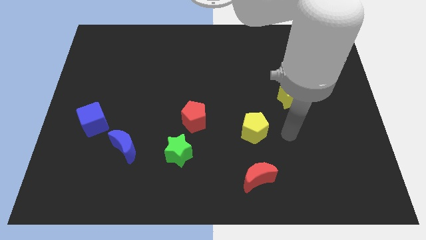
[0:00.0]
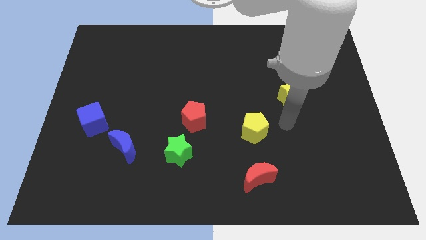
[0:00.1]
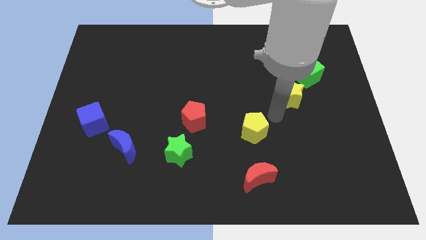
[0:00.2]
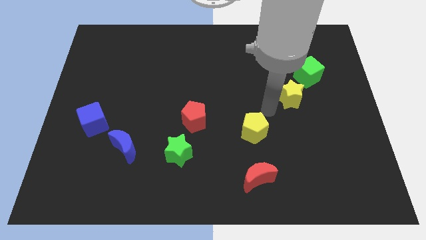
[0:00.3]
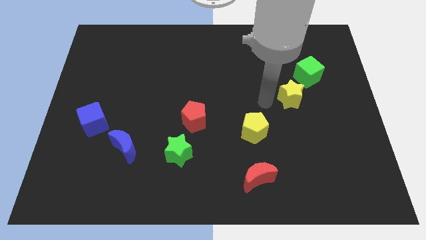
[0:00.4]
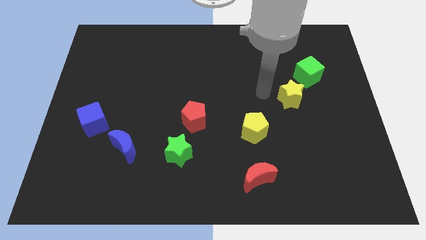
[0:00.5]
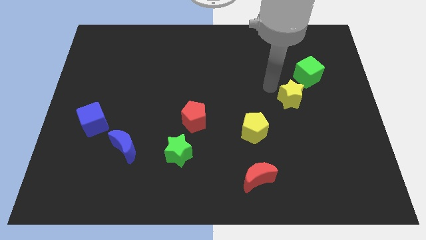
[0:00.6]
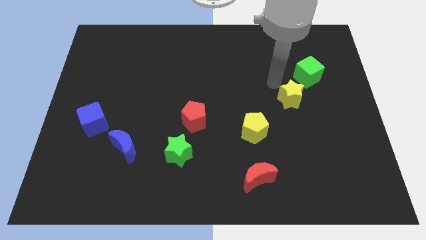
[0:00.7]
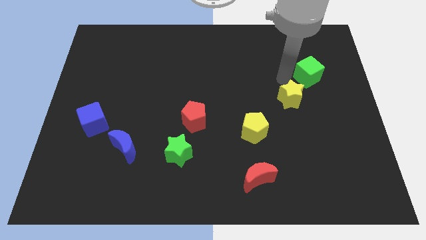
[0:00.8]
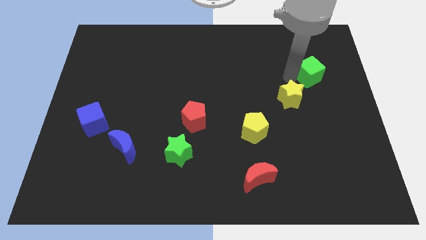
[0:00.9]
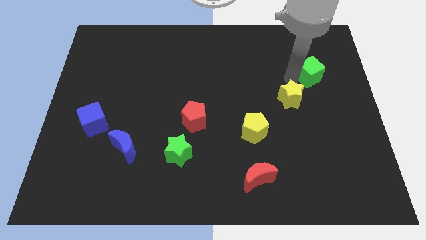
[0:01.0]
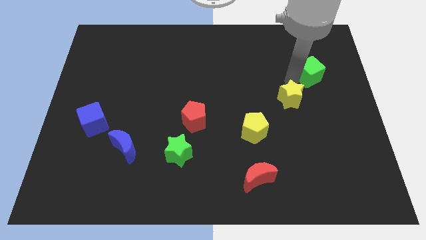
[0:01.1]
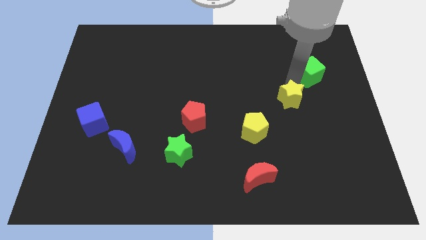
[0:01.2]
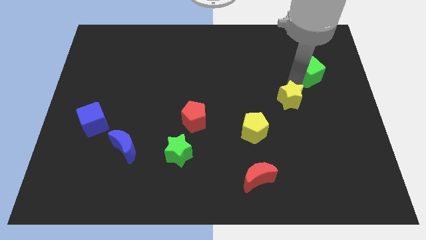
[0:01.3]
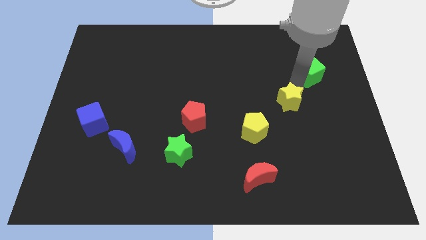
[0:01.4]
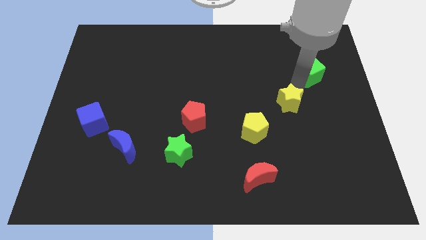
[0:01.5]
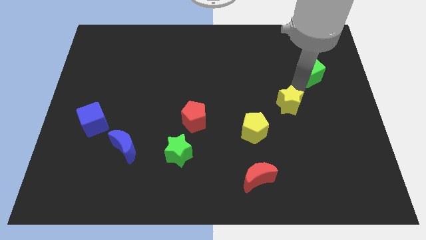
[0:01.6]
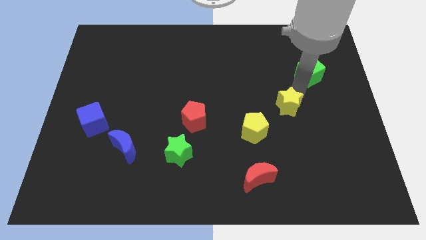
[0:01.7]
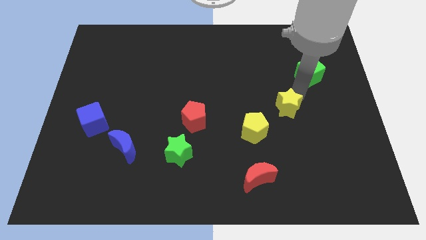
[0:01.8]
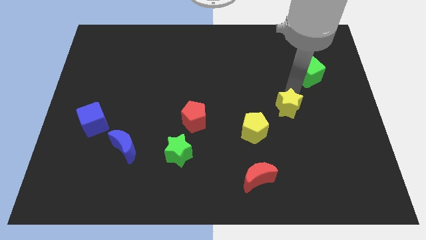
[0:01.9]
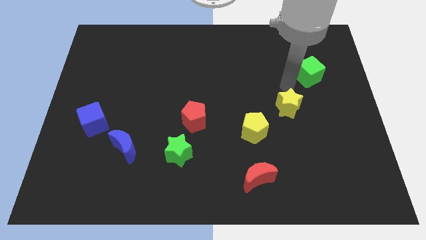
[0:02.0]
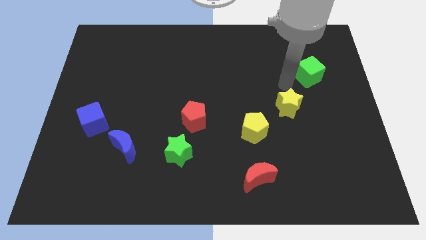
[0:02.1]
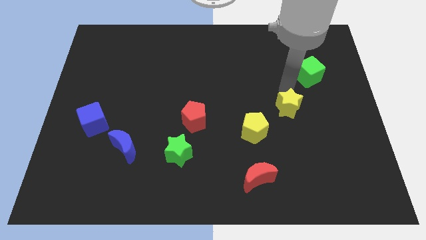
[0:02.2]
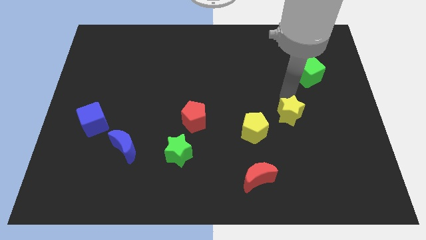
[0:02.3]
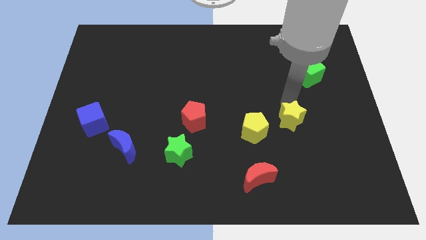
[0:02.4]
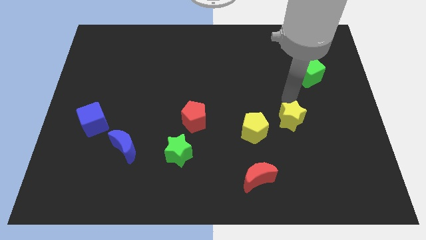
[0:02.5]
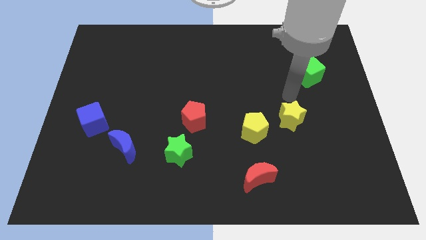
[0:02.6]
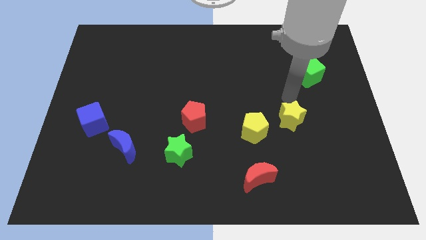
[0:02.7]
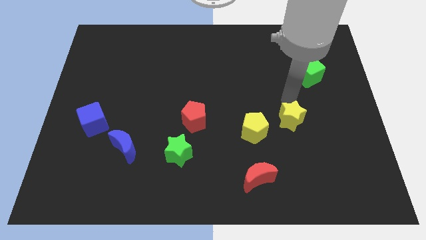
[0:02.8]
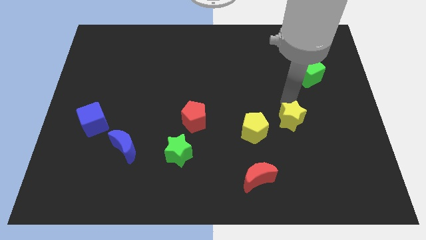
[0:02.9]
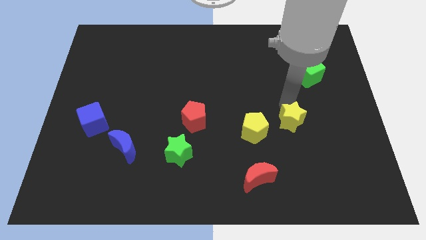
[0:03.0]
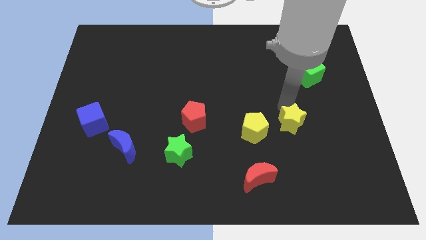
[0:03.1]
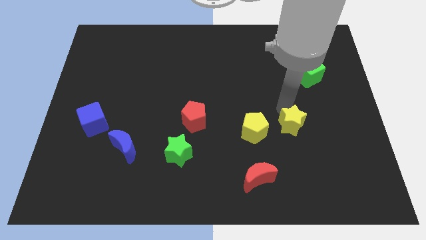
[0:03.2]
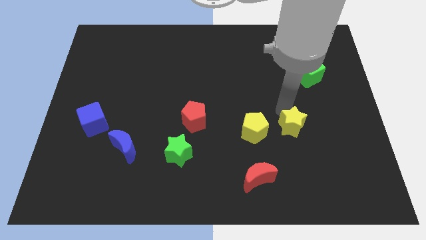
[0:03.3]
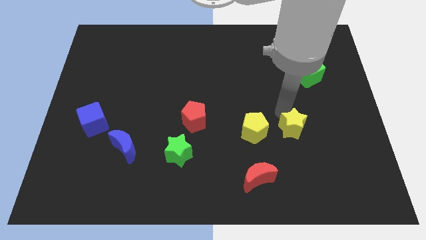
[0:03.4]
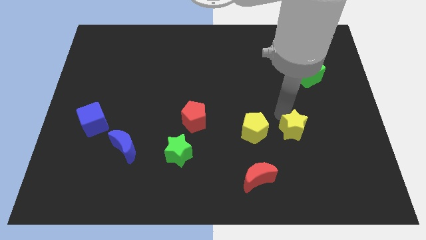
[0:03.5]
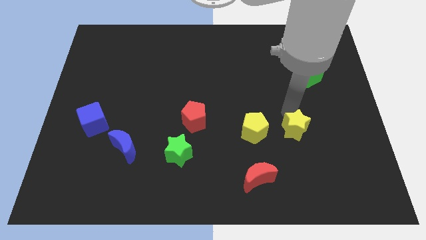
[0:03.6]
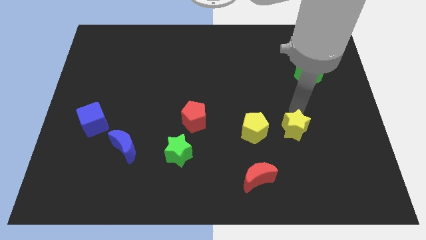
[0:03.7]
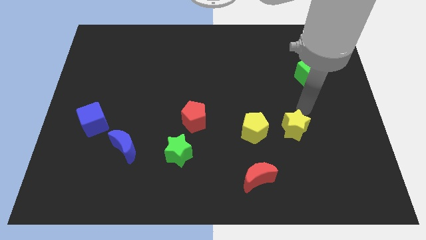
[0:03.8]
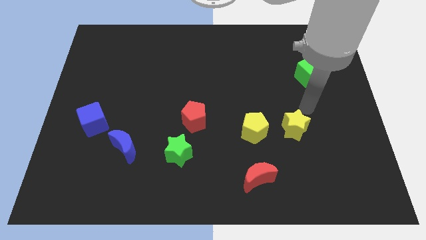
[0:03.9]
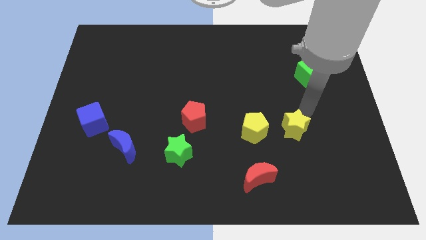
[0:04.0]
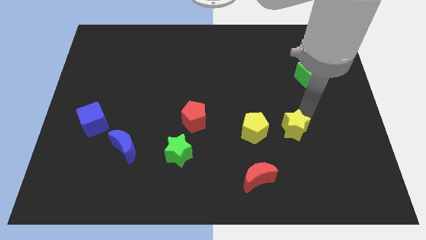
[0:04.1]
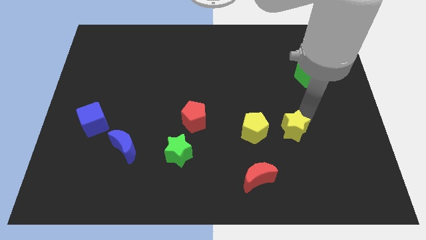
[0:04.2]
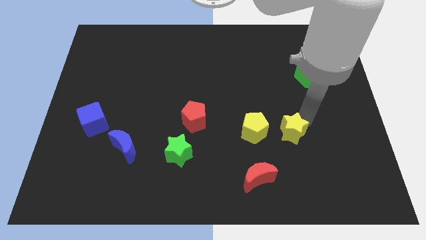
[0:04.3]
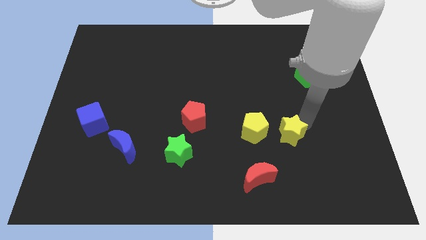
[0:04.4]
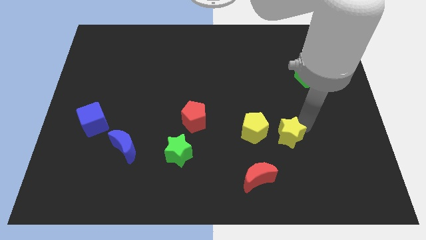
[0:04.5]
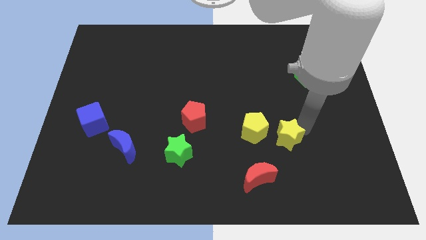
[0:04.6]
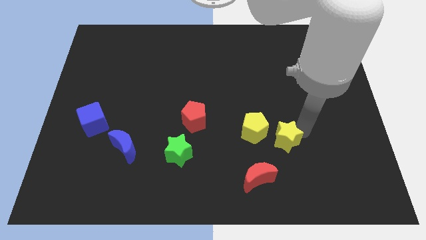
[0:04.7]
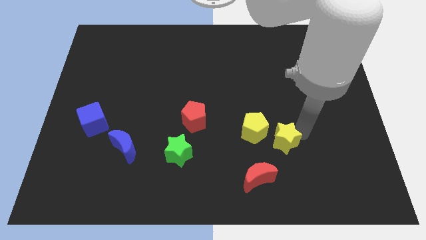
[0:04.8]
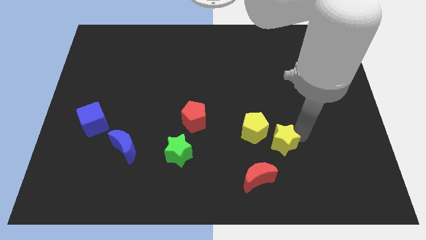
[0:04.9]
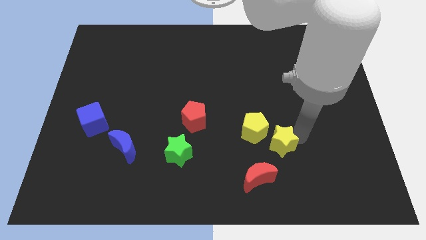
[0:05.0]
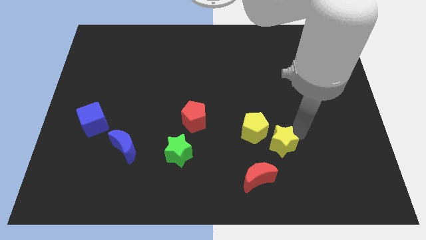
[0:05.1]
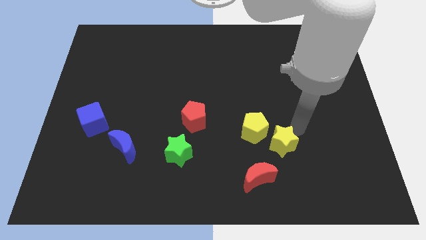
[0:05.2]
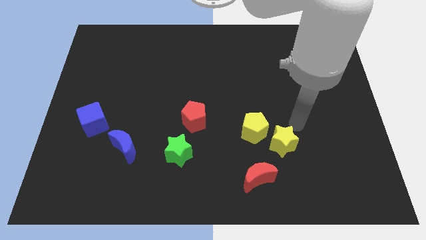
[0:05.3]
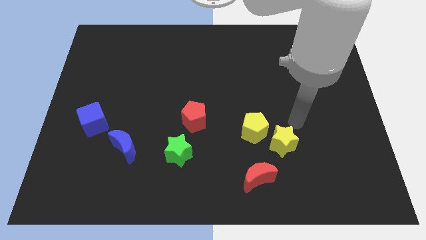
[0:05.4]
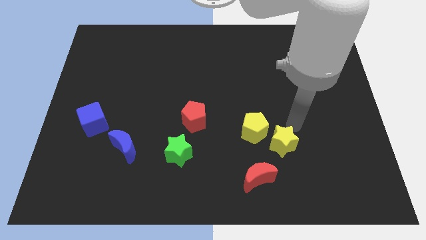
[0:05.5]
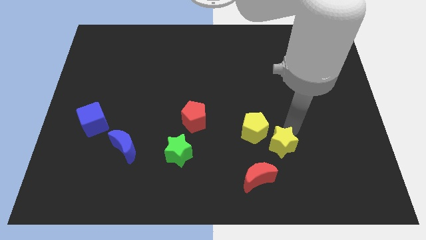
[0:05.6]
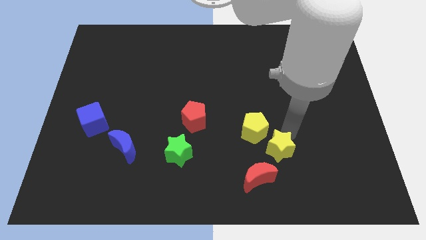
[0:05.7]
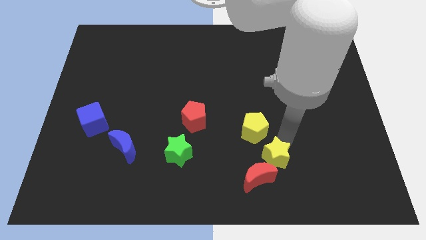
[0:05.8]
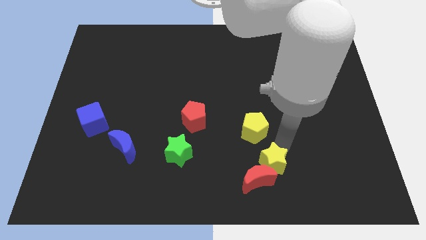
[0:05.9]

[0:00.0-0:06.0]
move the yellow star next to the red moon

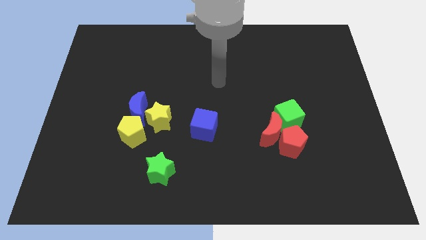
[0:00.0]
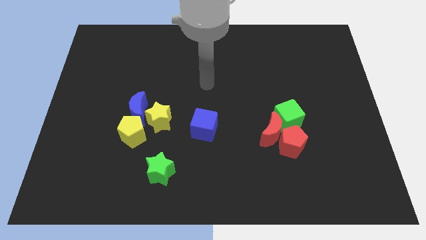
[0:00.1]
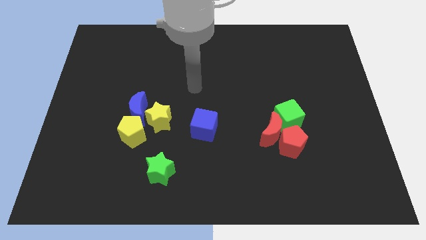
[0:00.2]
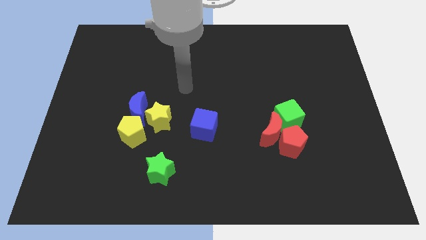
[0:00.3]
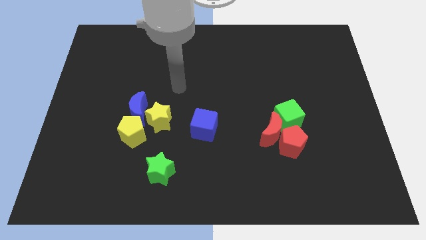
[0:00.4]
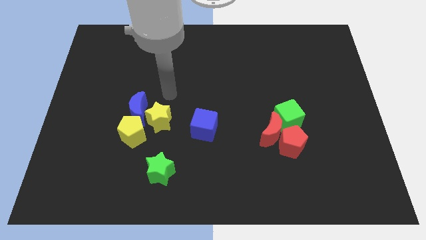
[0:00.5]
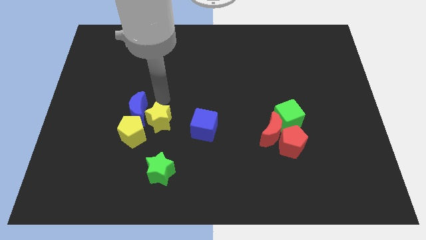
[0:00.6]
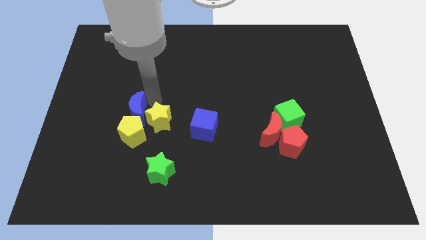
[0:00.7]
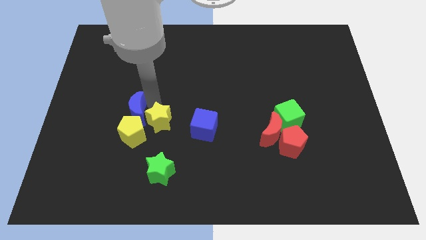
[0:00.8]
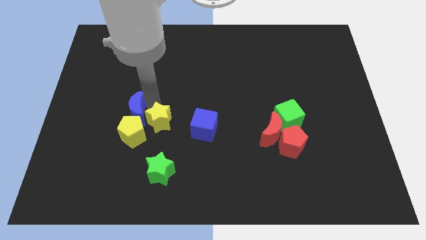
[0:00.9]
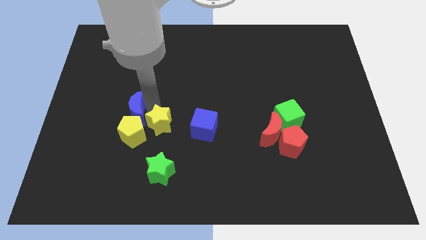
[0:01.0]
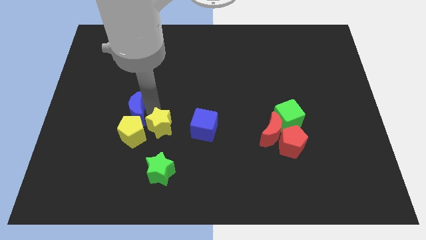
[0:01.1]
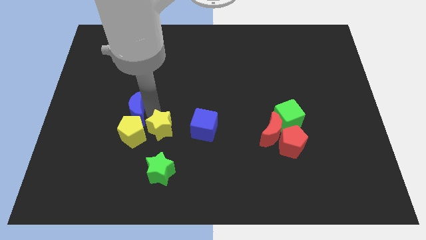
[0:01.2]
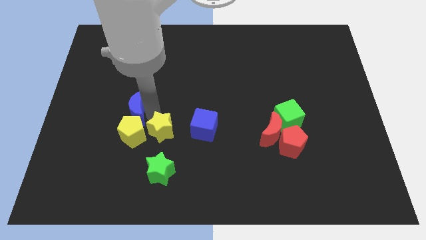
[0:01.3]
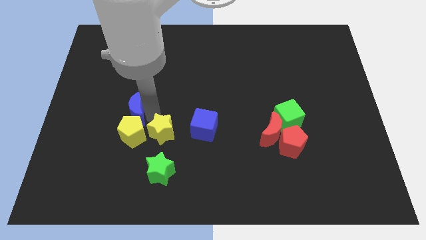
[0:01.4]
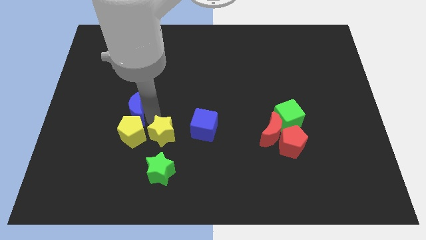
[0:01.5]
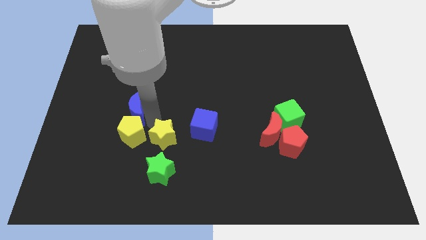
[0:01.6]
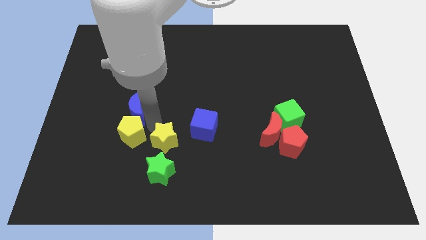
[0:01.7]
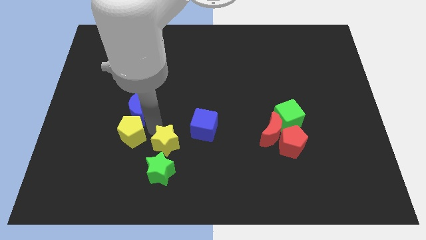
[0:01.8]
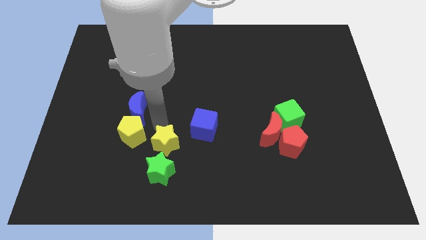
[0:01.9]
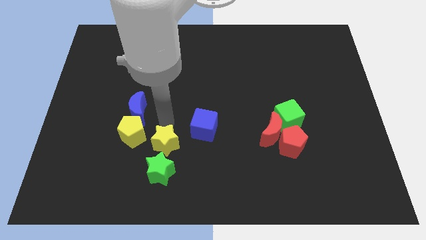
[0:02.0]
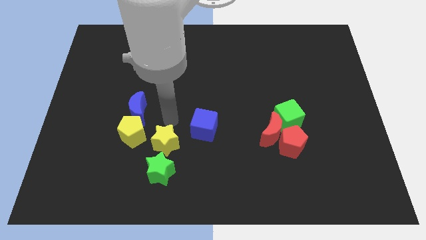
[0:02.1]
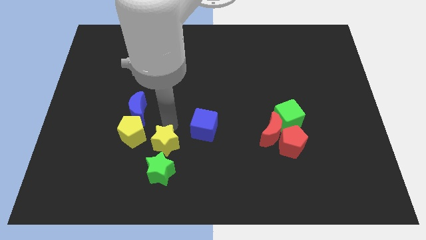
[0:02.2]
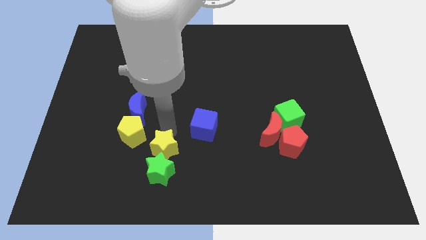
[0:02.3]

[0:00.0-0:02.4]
put the yellow star next to the green star
